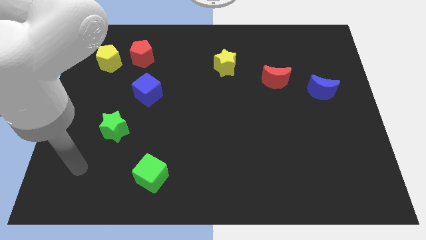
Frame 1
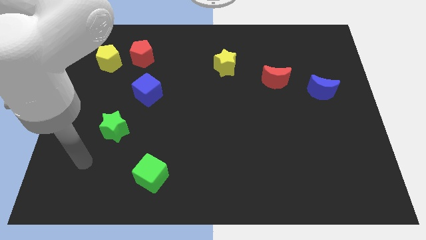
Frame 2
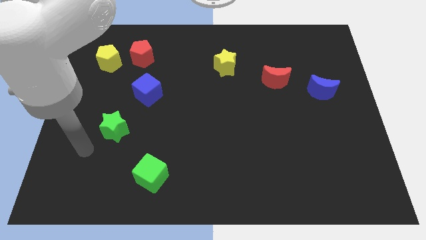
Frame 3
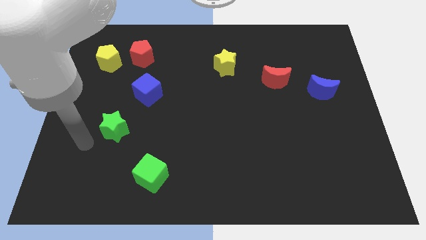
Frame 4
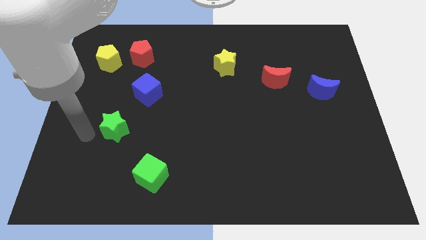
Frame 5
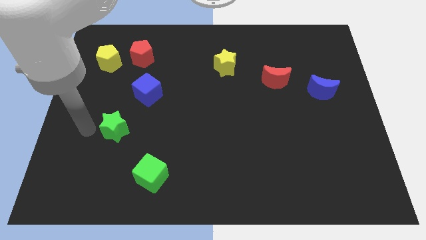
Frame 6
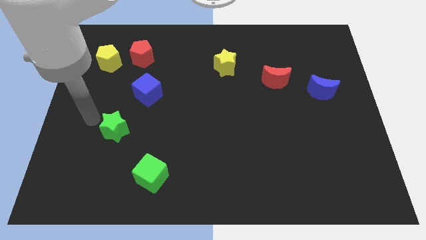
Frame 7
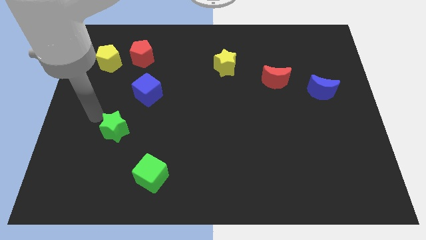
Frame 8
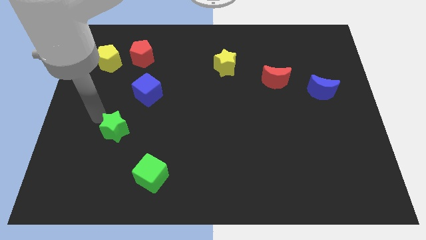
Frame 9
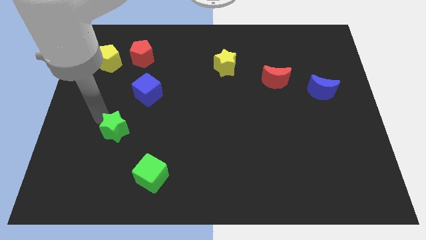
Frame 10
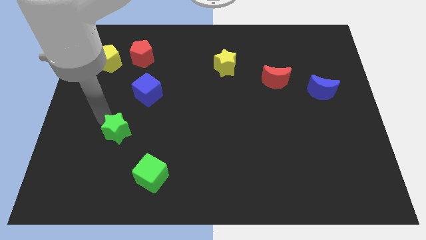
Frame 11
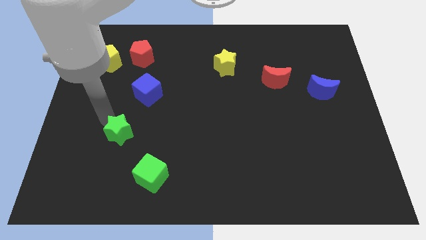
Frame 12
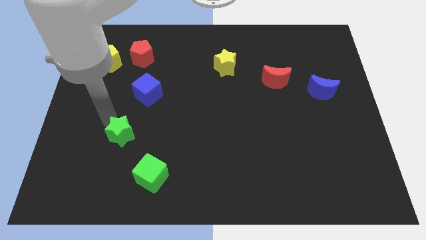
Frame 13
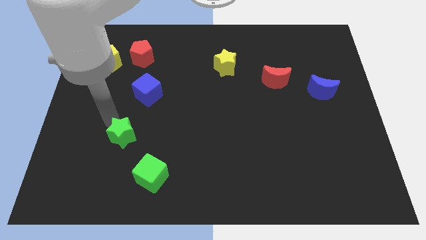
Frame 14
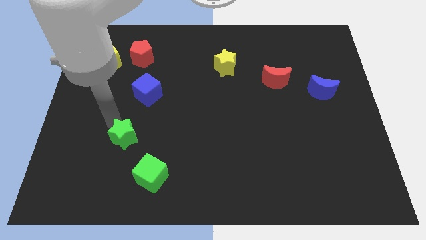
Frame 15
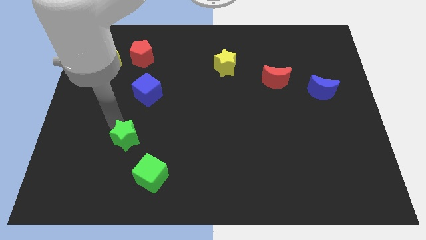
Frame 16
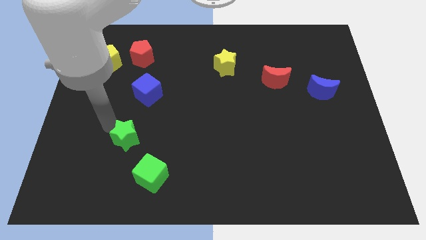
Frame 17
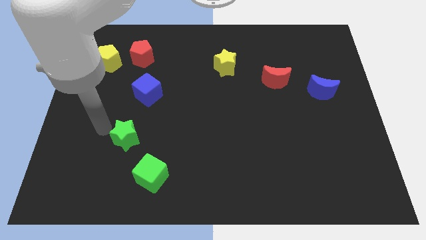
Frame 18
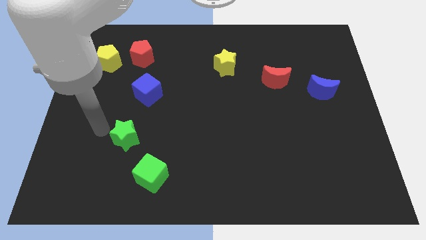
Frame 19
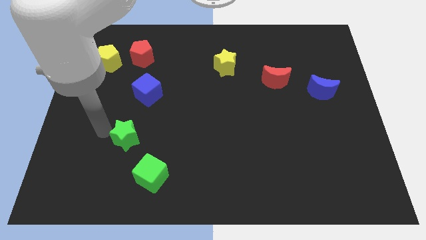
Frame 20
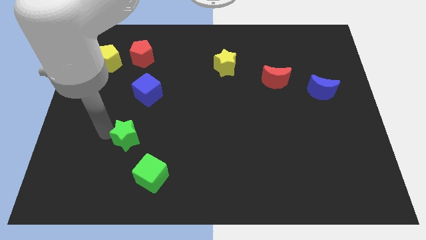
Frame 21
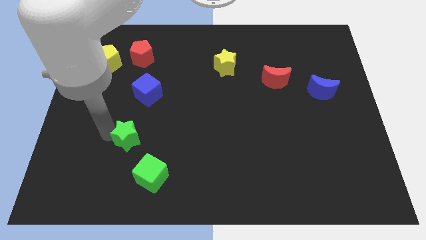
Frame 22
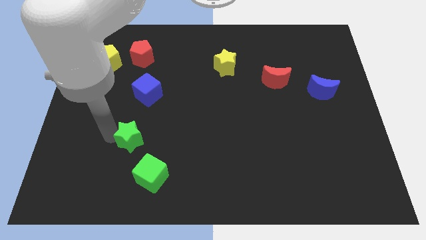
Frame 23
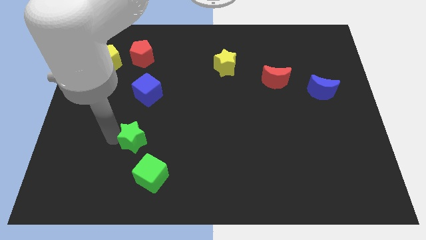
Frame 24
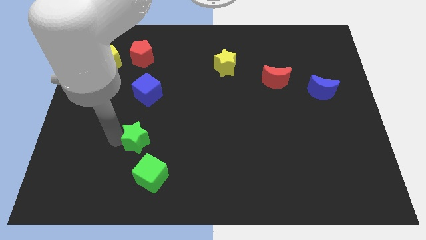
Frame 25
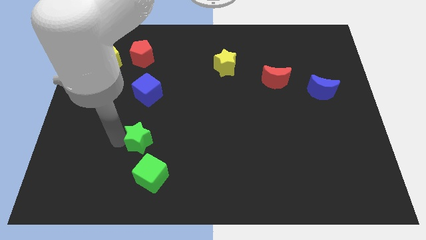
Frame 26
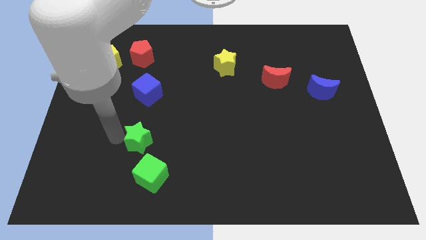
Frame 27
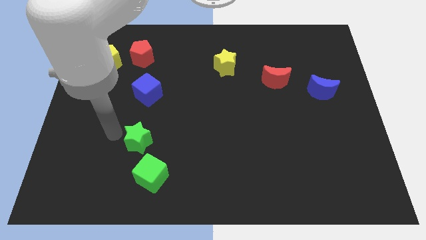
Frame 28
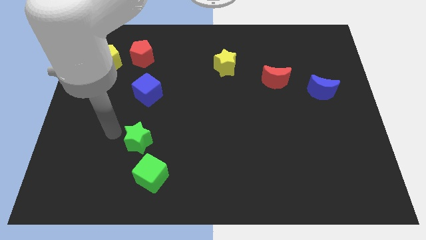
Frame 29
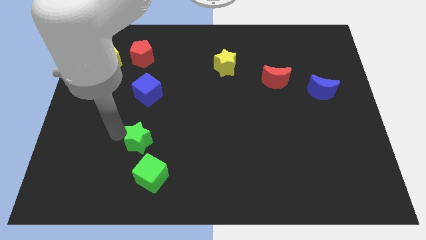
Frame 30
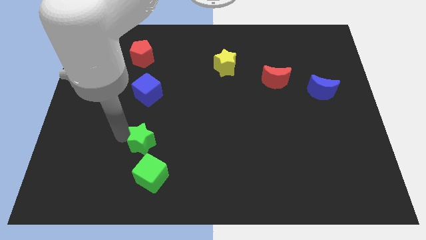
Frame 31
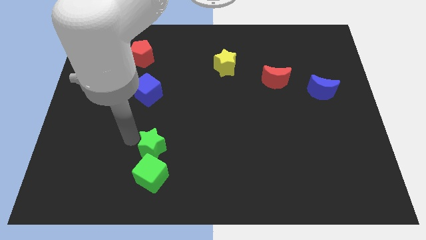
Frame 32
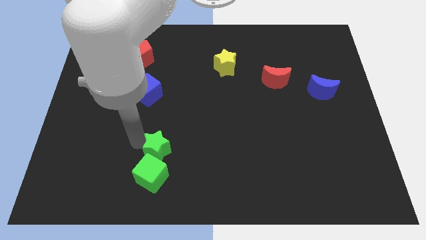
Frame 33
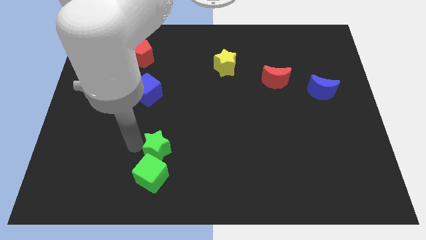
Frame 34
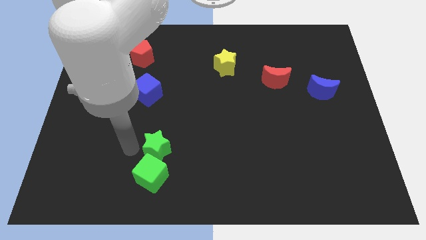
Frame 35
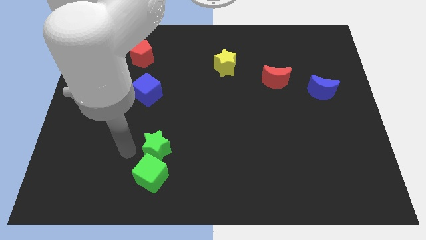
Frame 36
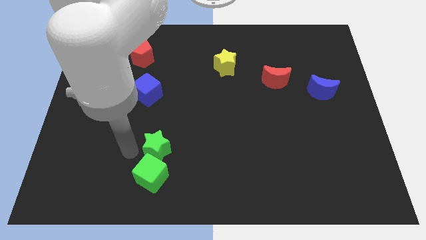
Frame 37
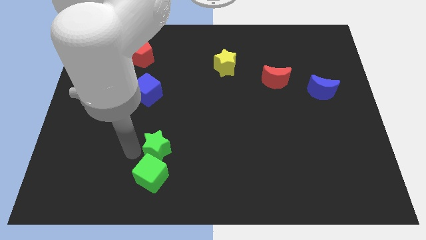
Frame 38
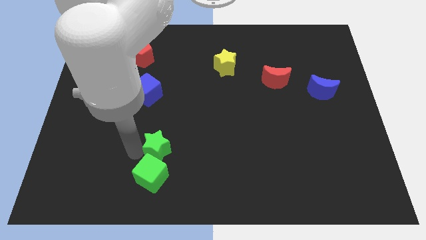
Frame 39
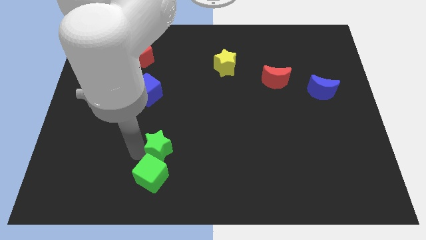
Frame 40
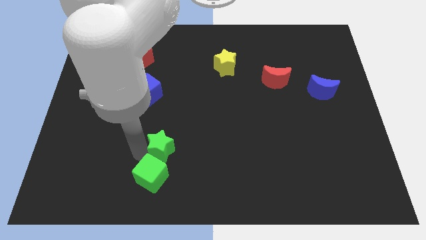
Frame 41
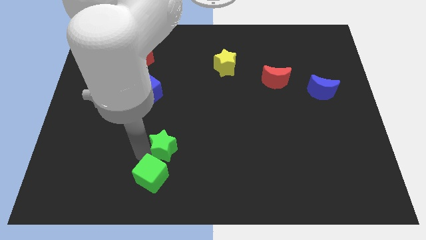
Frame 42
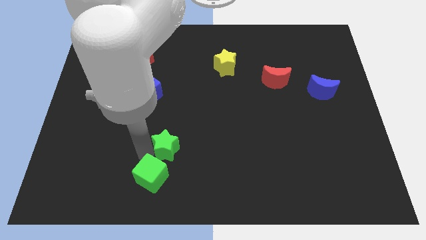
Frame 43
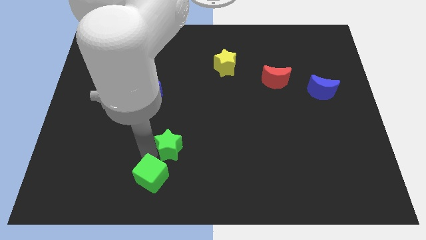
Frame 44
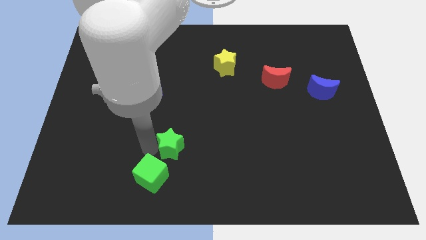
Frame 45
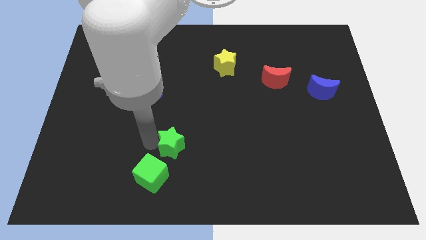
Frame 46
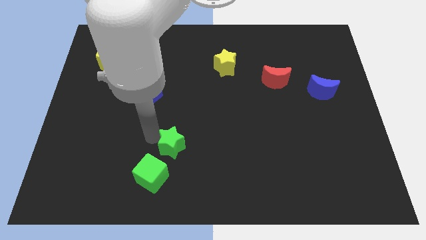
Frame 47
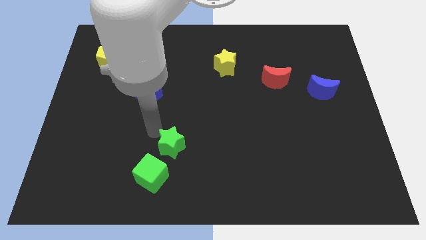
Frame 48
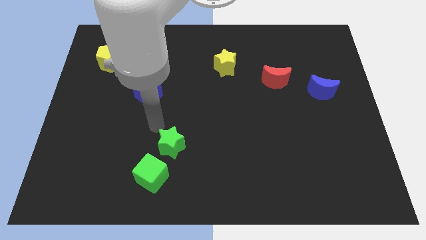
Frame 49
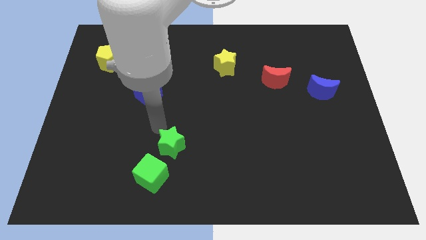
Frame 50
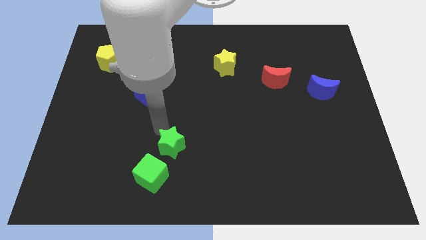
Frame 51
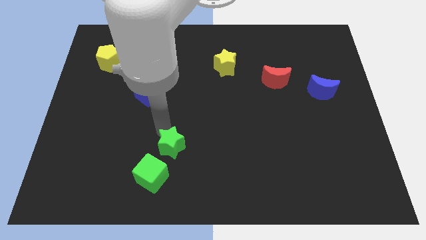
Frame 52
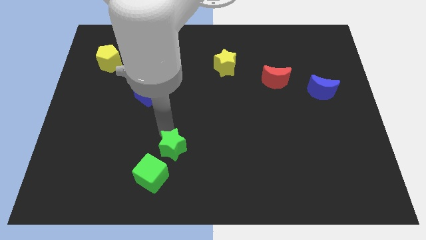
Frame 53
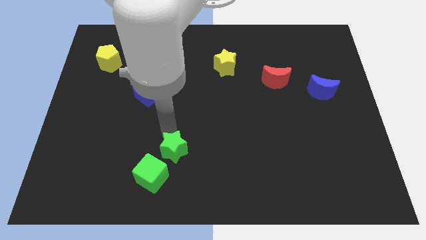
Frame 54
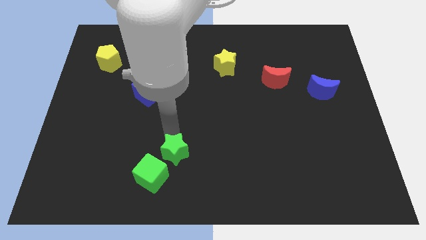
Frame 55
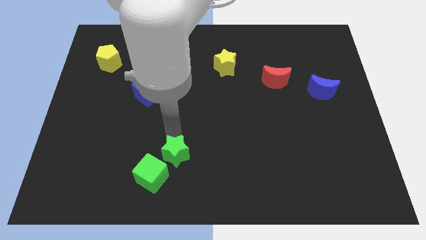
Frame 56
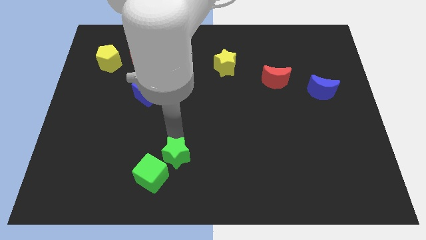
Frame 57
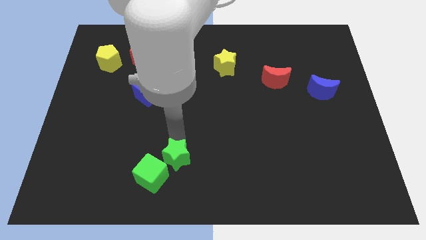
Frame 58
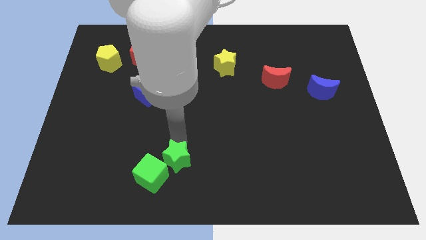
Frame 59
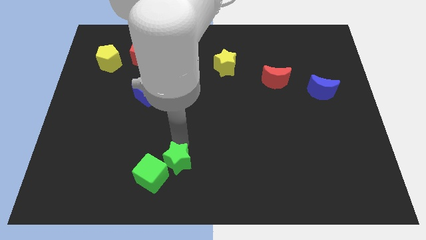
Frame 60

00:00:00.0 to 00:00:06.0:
push the green star to the bottom side

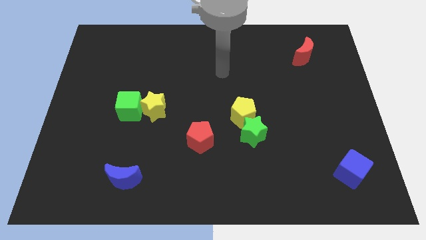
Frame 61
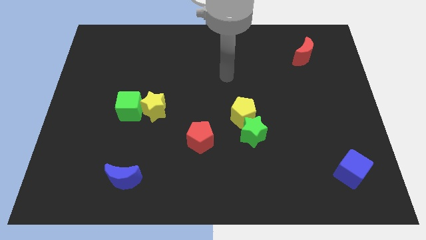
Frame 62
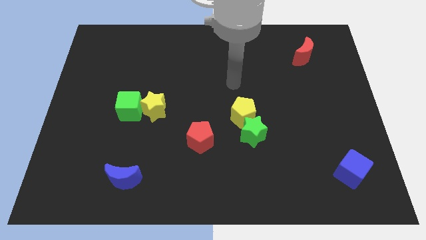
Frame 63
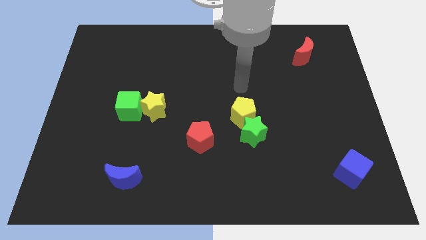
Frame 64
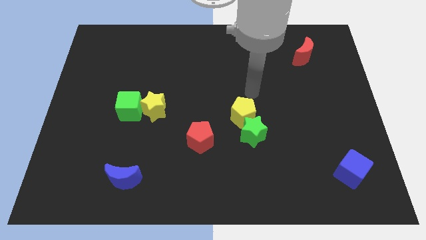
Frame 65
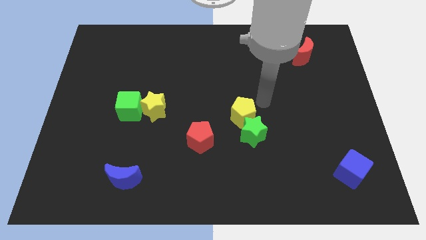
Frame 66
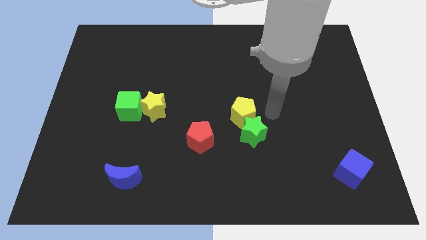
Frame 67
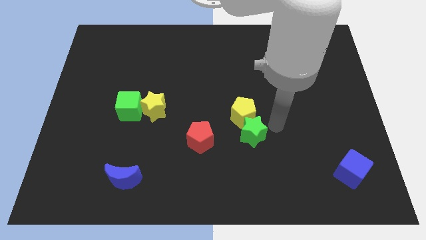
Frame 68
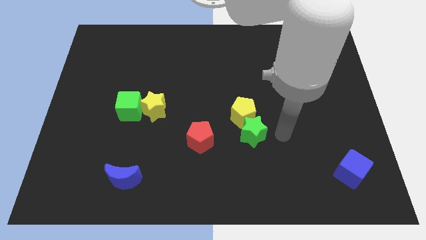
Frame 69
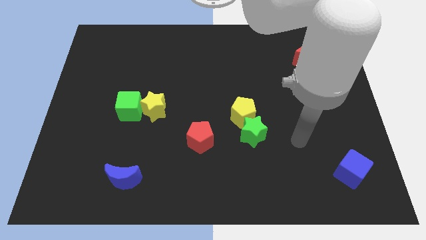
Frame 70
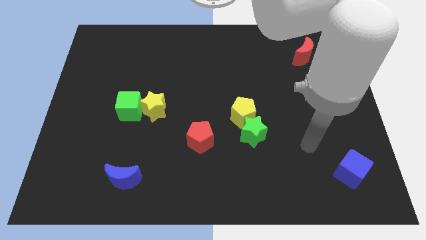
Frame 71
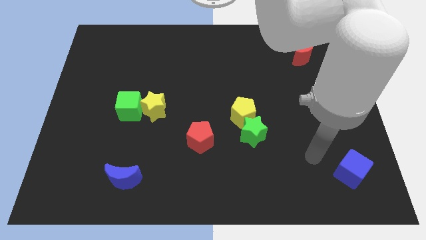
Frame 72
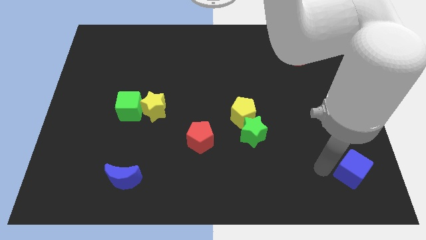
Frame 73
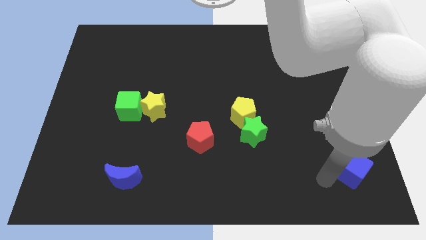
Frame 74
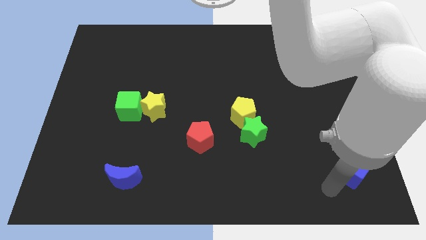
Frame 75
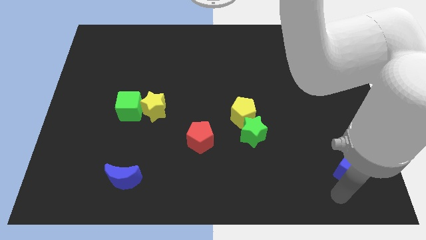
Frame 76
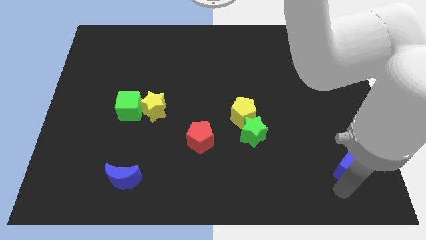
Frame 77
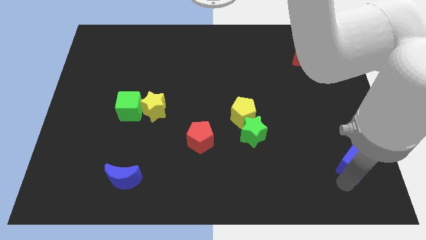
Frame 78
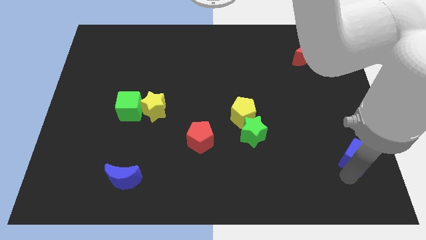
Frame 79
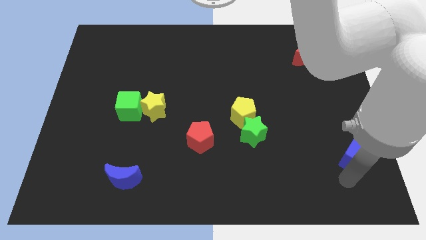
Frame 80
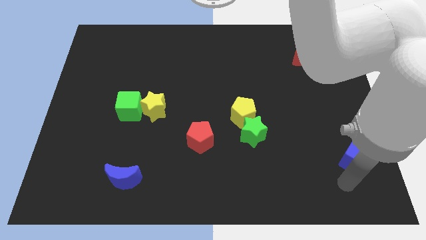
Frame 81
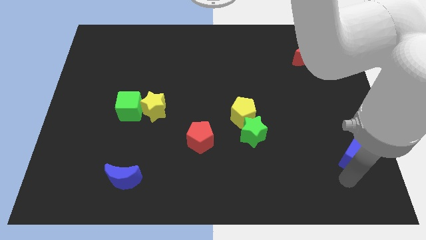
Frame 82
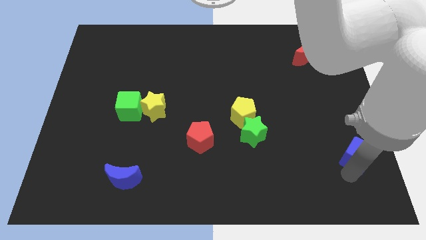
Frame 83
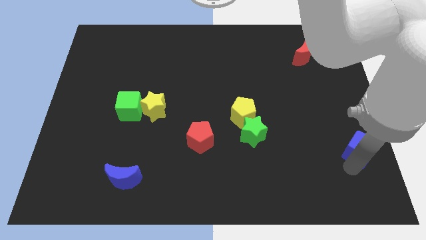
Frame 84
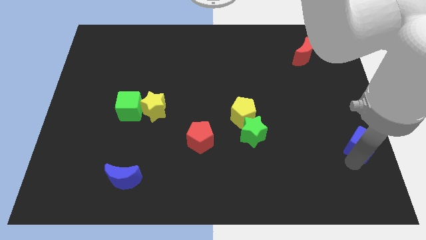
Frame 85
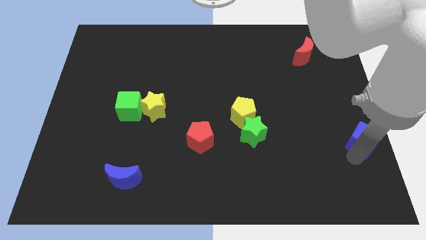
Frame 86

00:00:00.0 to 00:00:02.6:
push the blue cube to the right side of the board
